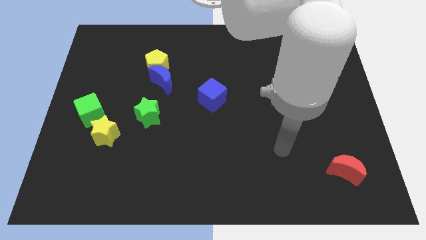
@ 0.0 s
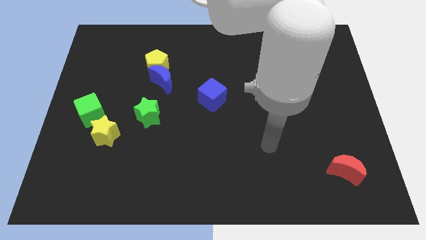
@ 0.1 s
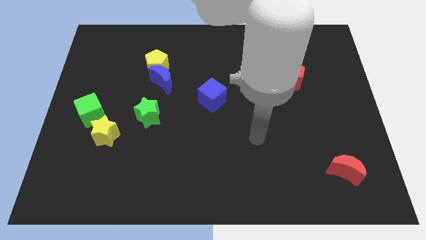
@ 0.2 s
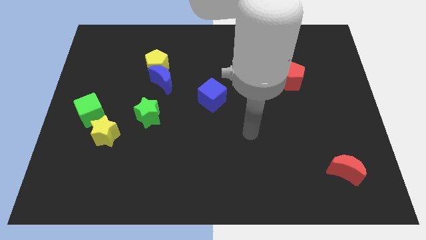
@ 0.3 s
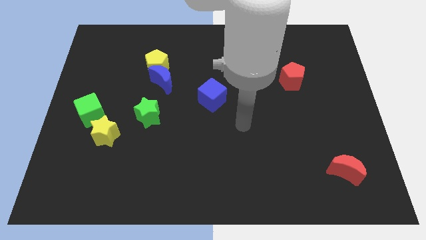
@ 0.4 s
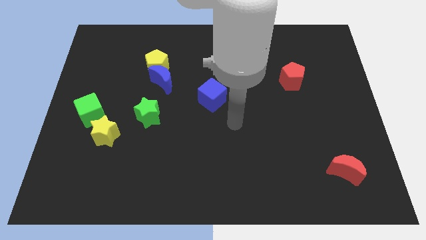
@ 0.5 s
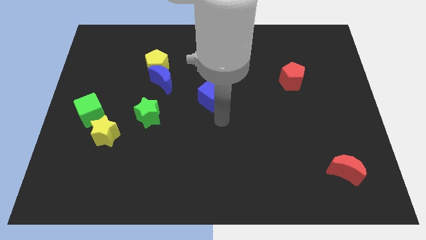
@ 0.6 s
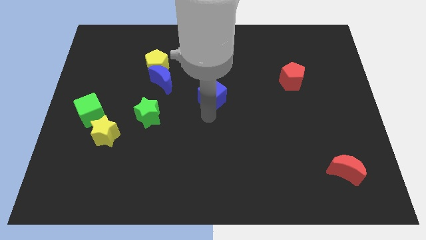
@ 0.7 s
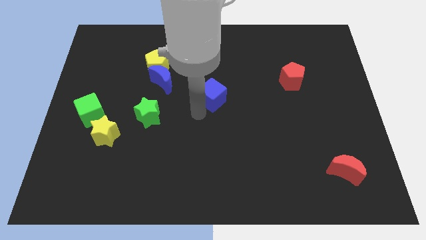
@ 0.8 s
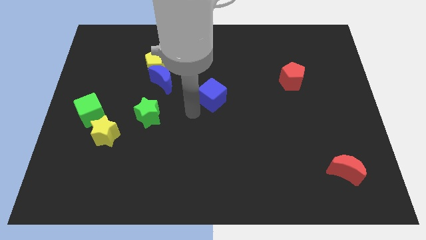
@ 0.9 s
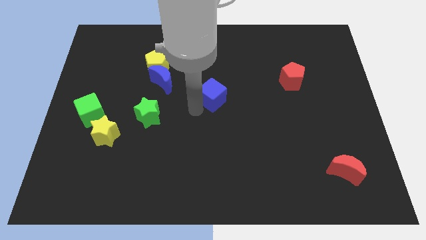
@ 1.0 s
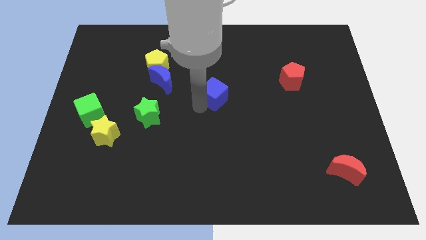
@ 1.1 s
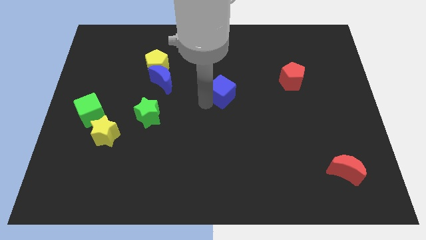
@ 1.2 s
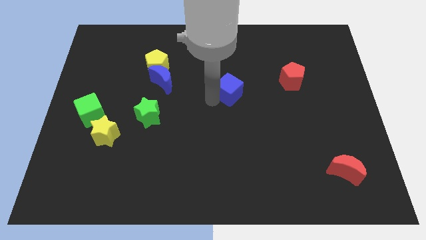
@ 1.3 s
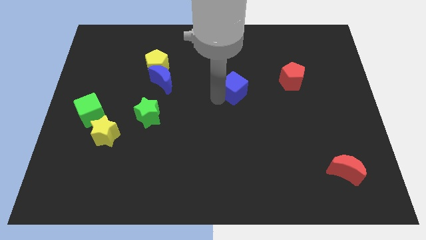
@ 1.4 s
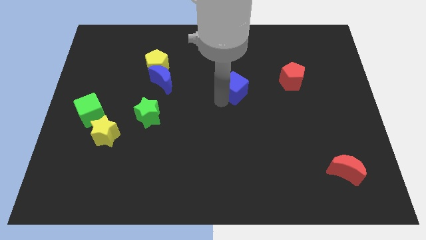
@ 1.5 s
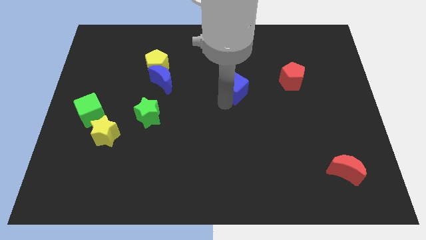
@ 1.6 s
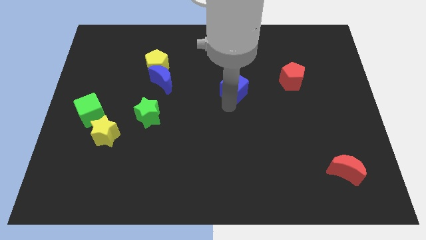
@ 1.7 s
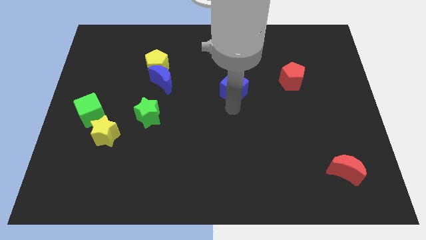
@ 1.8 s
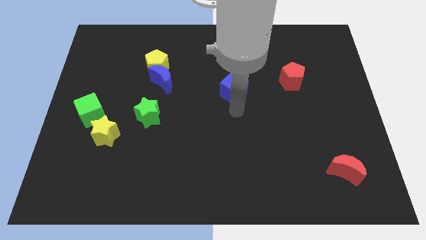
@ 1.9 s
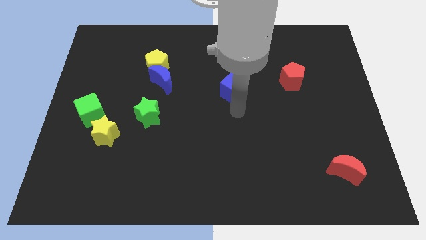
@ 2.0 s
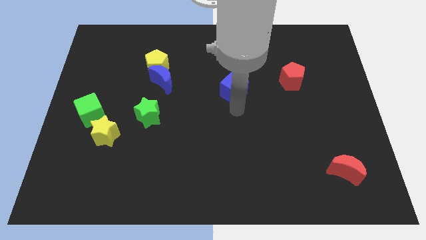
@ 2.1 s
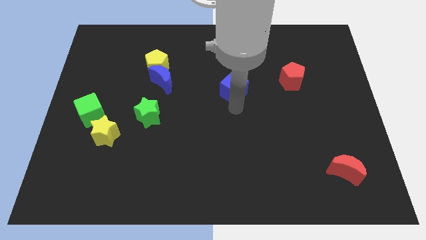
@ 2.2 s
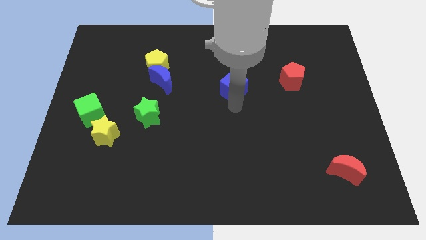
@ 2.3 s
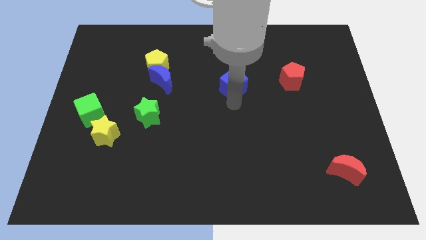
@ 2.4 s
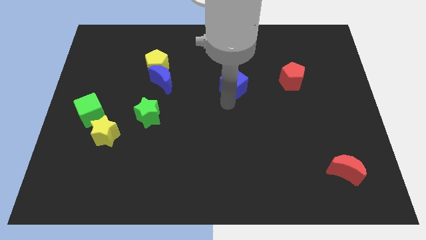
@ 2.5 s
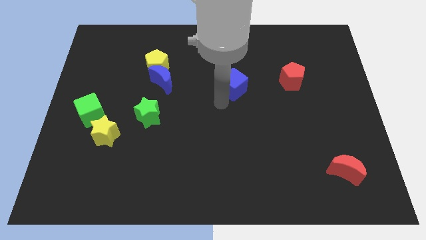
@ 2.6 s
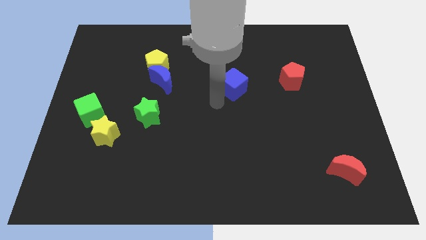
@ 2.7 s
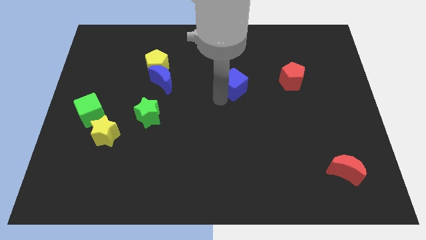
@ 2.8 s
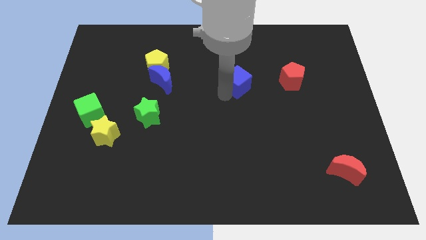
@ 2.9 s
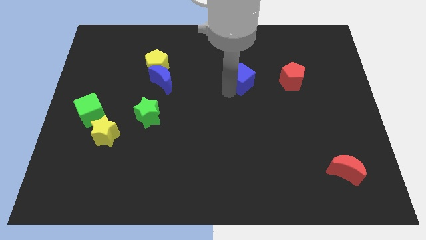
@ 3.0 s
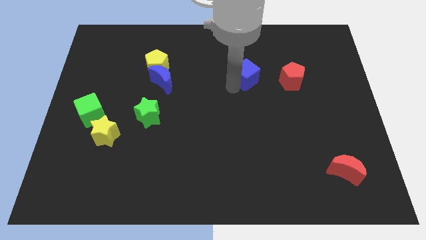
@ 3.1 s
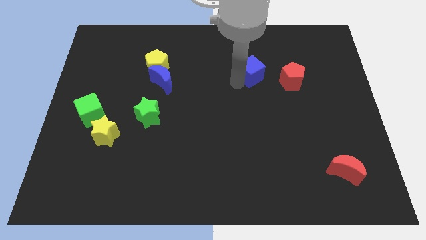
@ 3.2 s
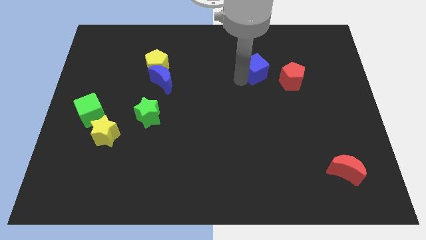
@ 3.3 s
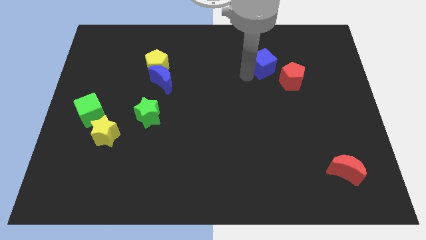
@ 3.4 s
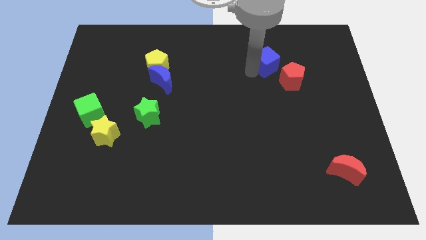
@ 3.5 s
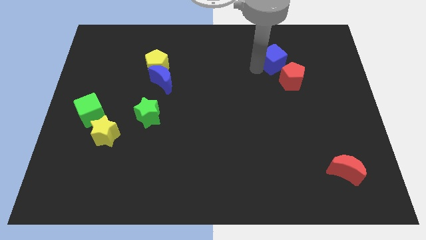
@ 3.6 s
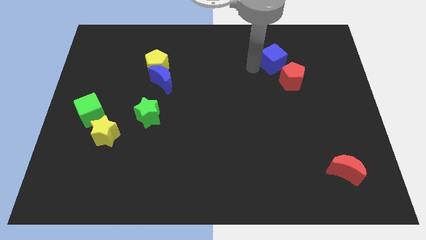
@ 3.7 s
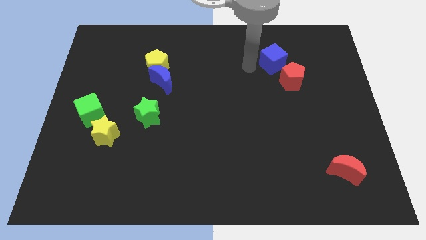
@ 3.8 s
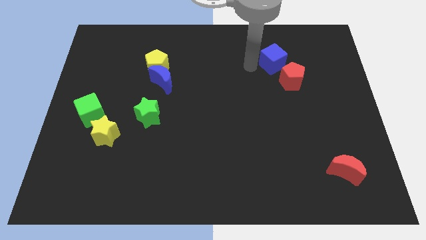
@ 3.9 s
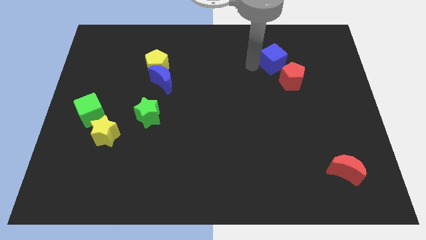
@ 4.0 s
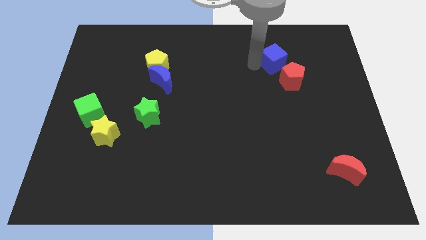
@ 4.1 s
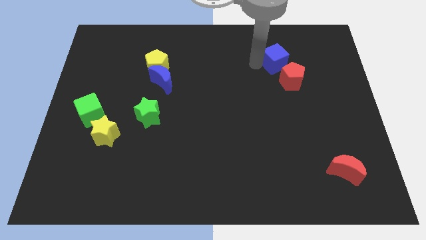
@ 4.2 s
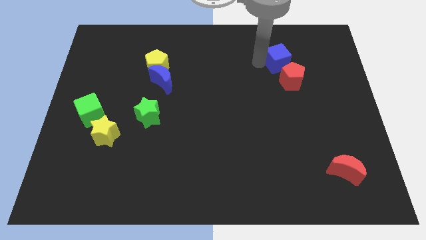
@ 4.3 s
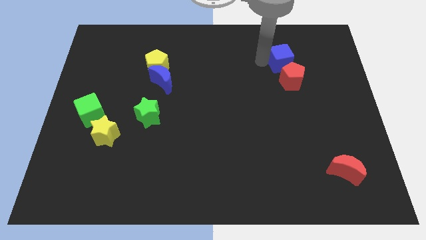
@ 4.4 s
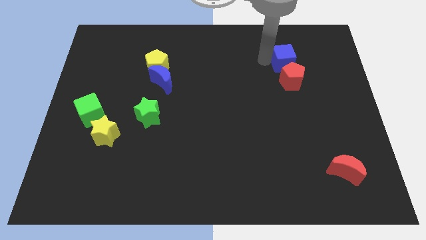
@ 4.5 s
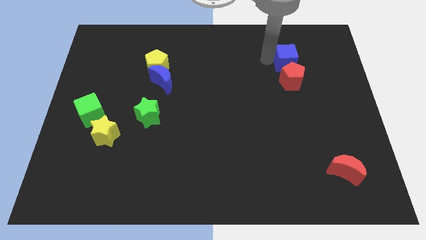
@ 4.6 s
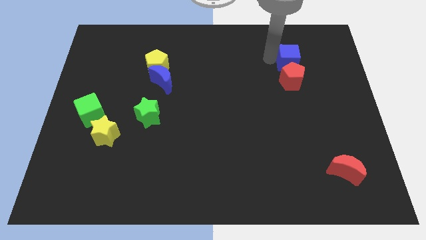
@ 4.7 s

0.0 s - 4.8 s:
slide the blue cube diagonally up and to the right of the red pentagon

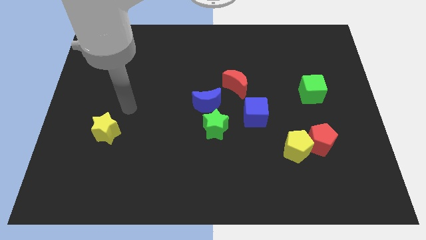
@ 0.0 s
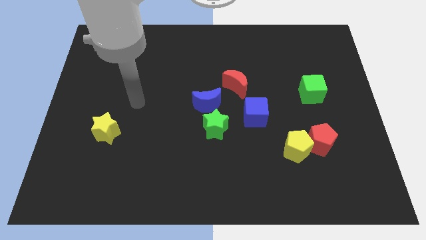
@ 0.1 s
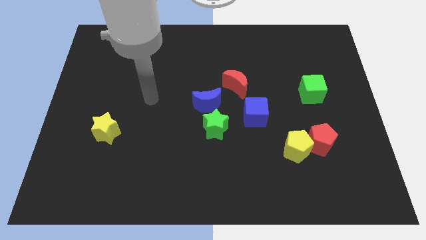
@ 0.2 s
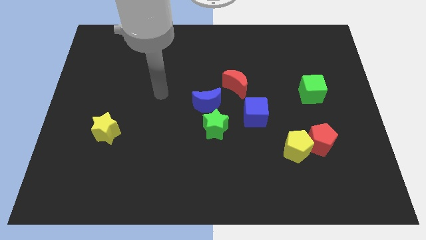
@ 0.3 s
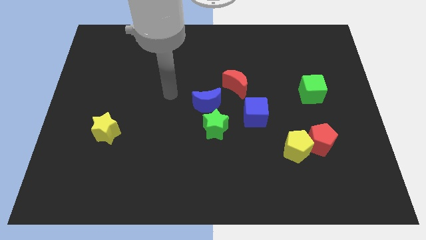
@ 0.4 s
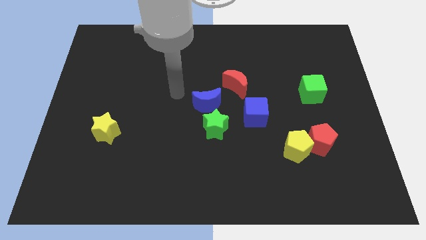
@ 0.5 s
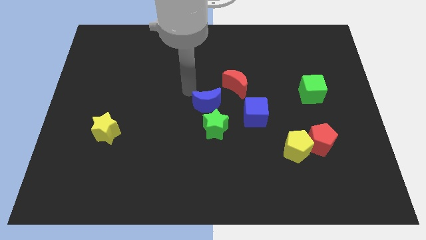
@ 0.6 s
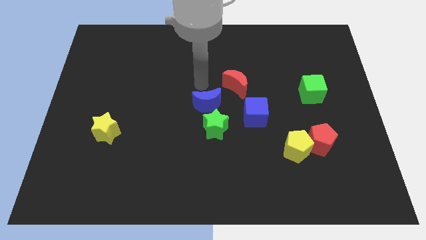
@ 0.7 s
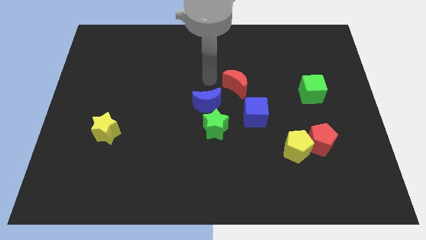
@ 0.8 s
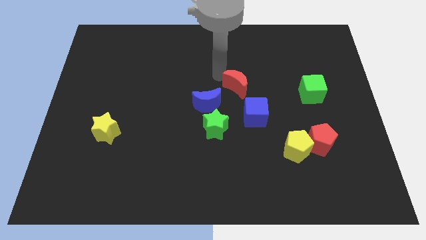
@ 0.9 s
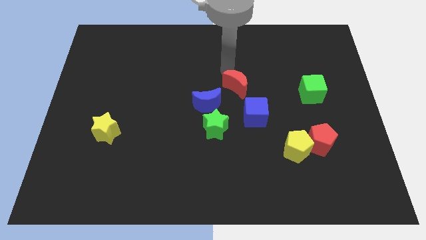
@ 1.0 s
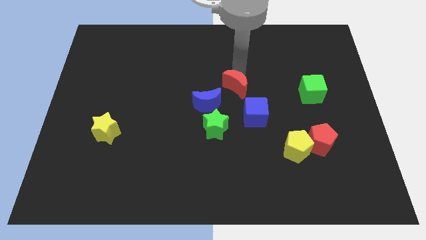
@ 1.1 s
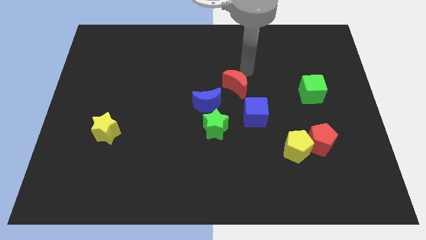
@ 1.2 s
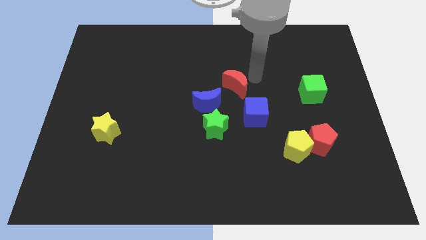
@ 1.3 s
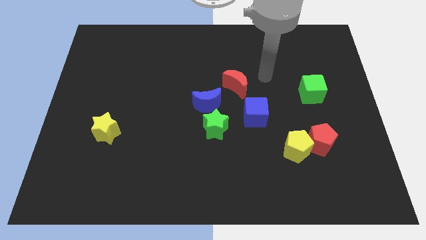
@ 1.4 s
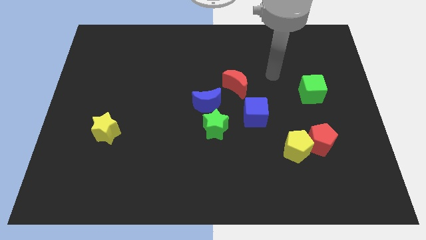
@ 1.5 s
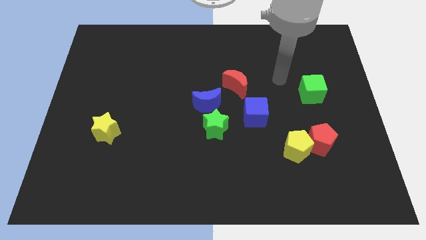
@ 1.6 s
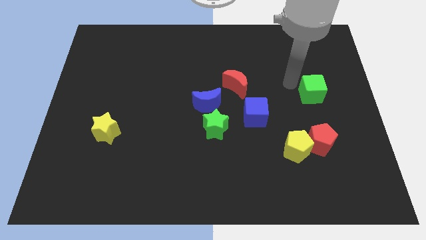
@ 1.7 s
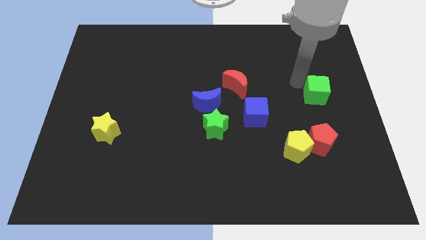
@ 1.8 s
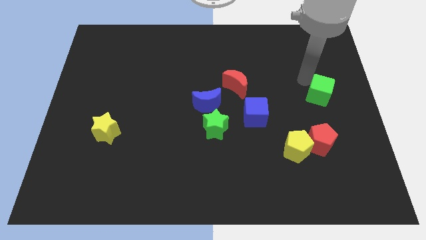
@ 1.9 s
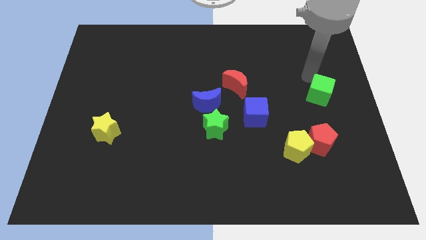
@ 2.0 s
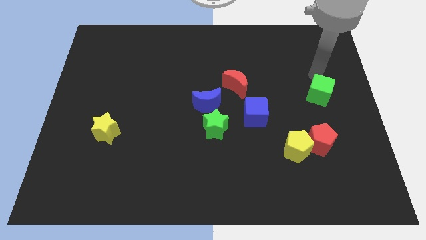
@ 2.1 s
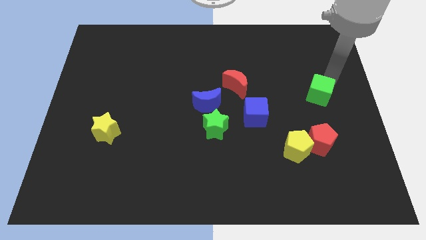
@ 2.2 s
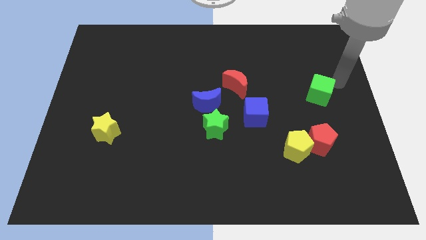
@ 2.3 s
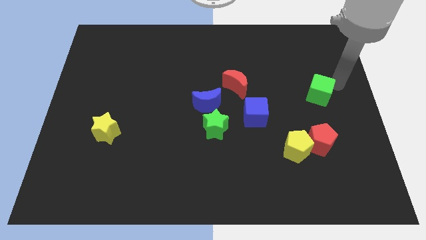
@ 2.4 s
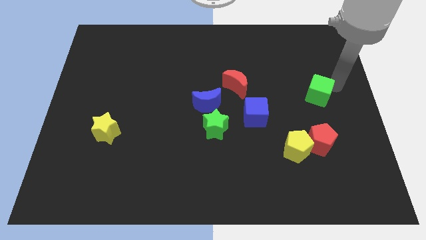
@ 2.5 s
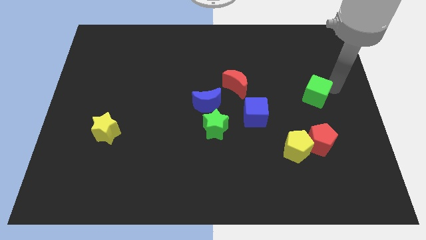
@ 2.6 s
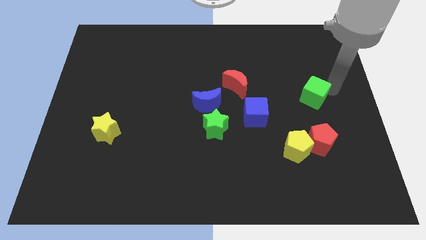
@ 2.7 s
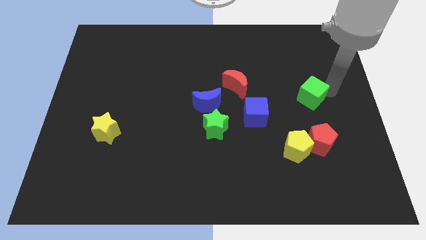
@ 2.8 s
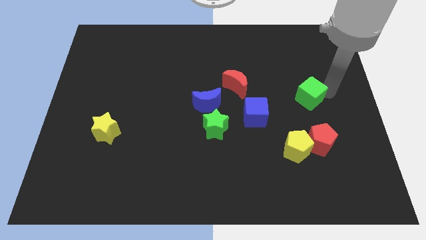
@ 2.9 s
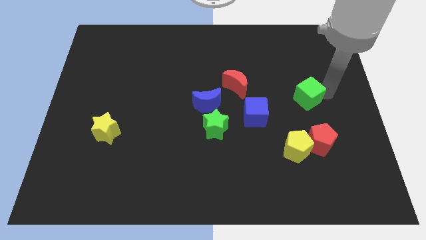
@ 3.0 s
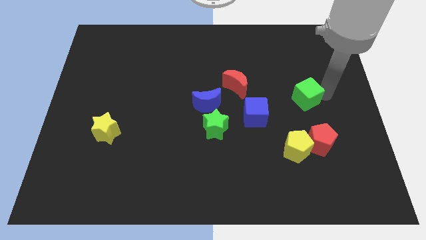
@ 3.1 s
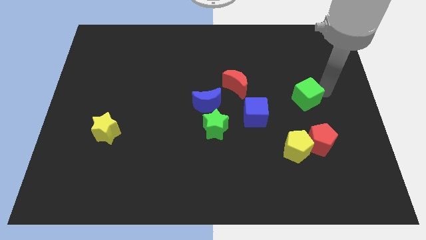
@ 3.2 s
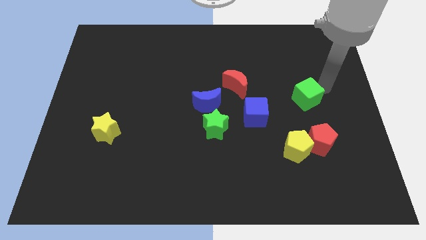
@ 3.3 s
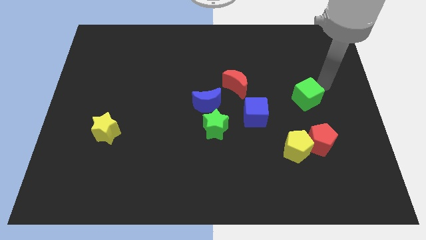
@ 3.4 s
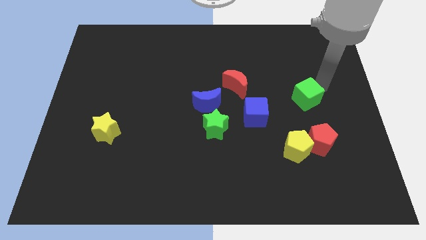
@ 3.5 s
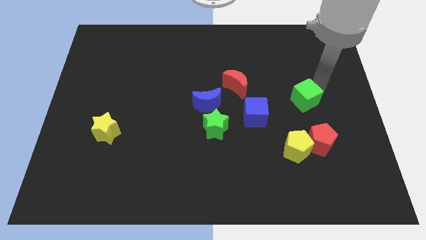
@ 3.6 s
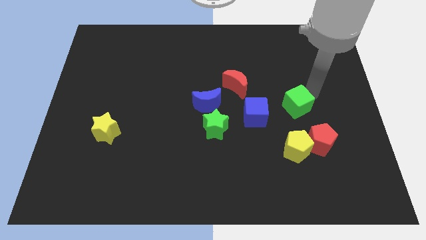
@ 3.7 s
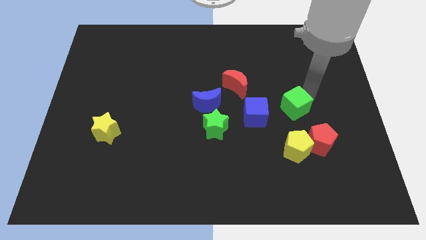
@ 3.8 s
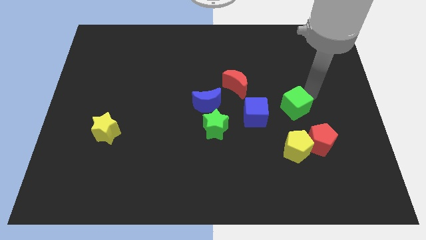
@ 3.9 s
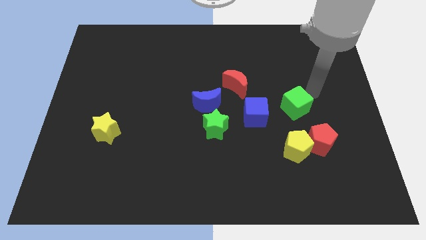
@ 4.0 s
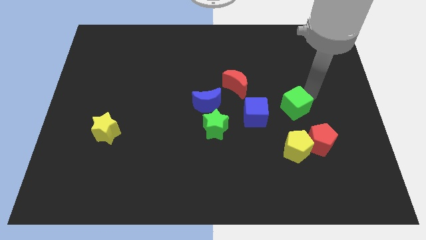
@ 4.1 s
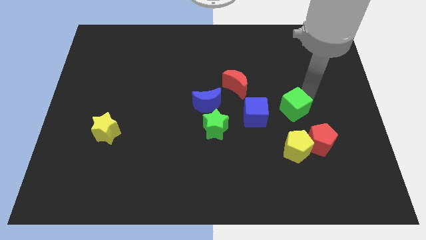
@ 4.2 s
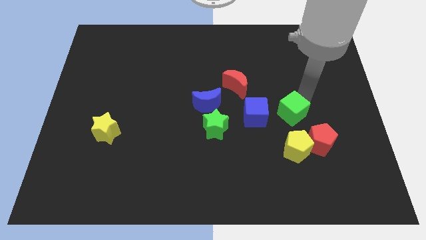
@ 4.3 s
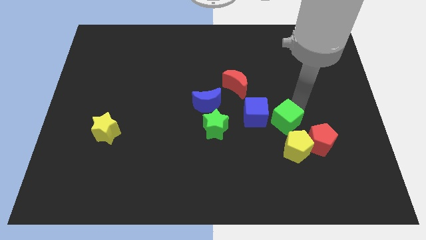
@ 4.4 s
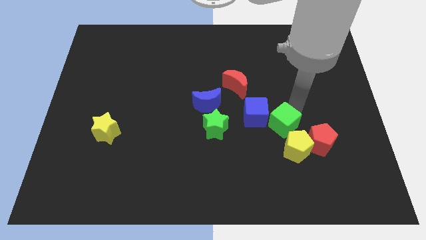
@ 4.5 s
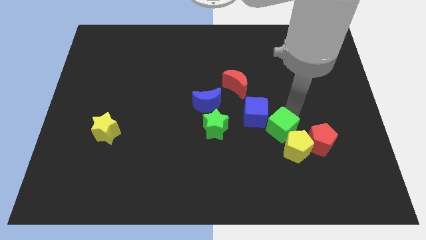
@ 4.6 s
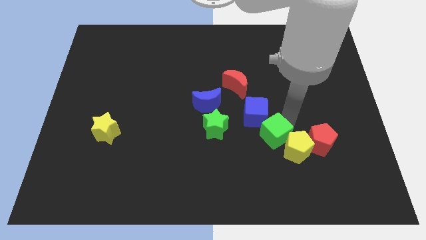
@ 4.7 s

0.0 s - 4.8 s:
slide the green cube left of the yellow pentagon
